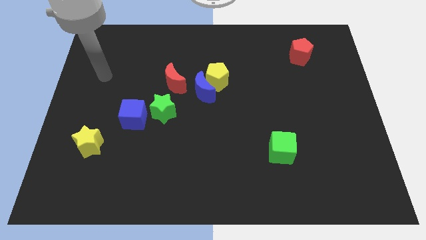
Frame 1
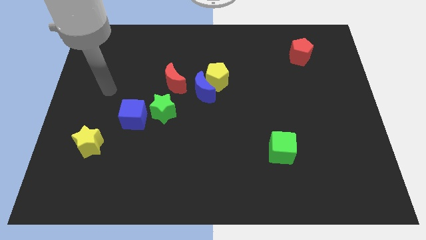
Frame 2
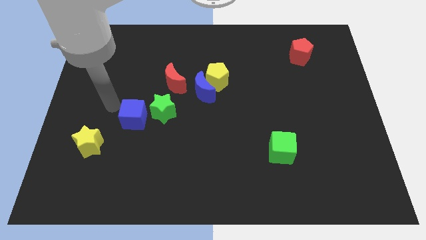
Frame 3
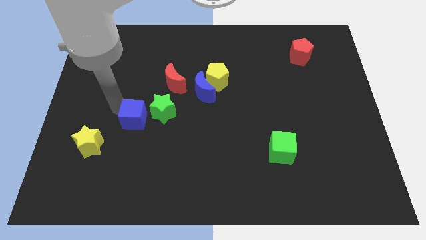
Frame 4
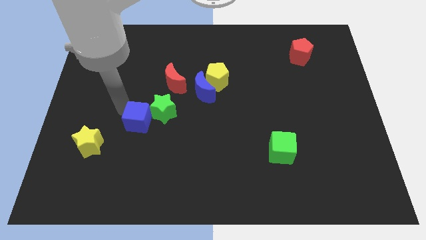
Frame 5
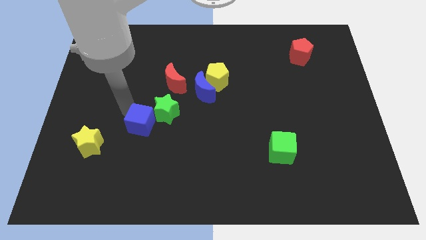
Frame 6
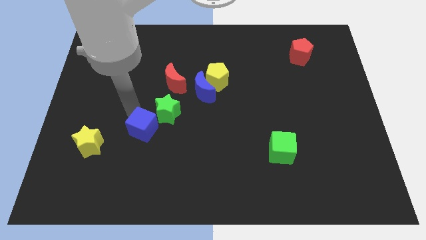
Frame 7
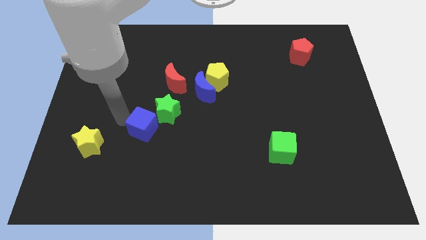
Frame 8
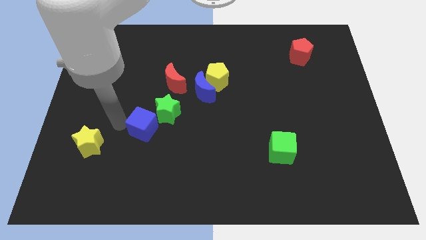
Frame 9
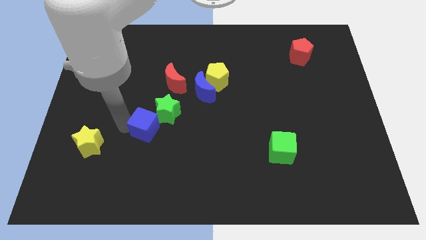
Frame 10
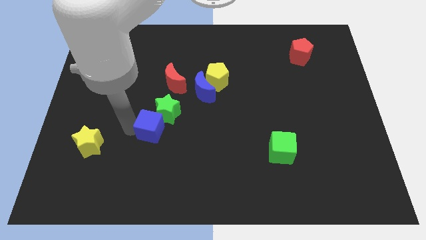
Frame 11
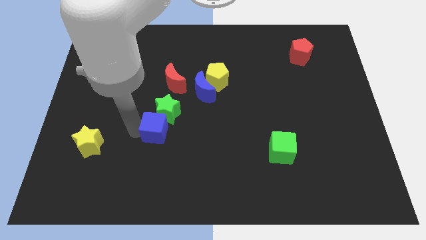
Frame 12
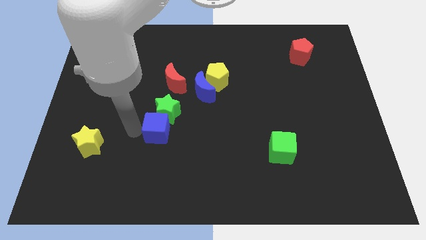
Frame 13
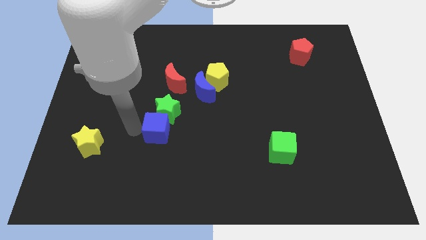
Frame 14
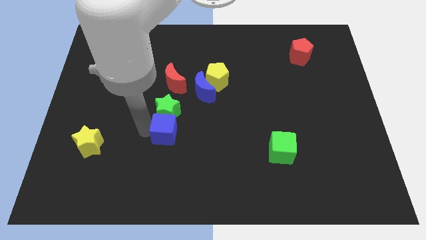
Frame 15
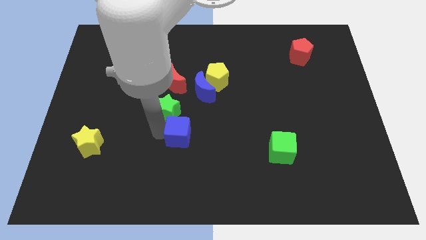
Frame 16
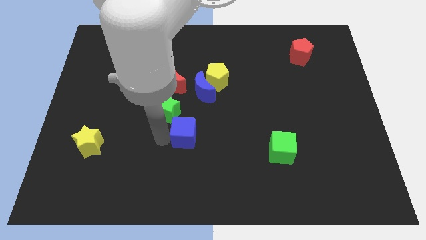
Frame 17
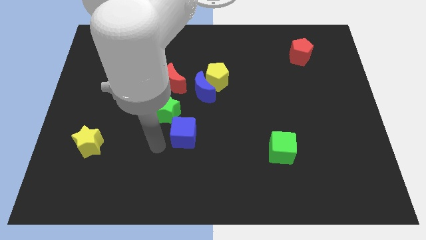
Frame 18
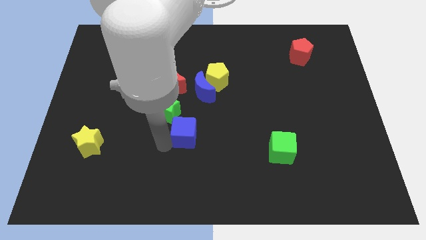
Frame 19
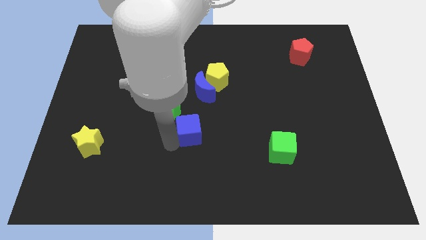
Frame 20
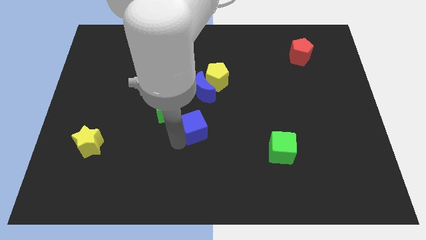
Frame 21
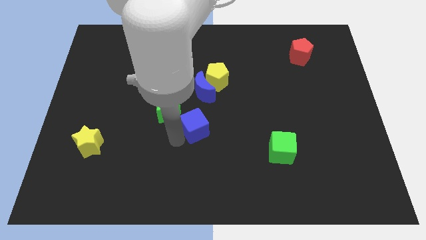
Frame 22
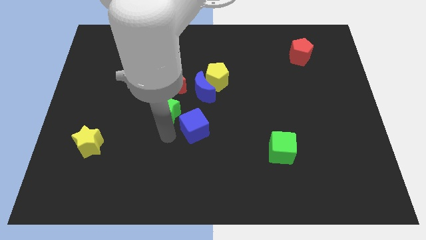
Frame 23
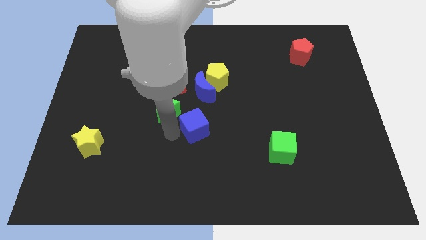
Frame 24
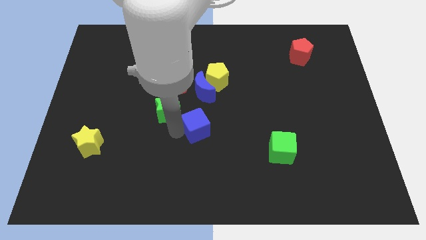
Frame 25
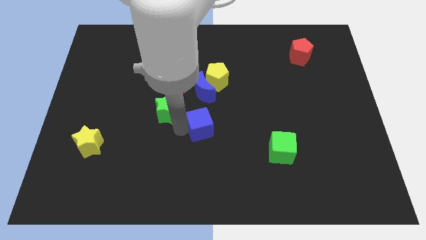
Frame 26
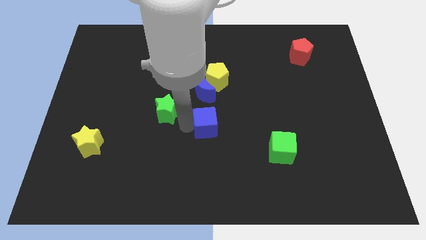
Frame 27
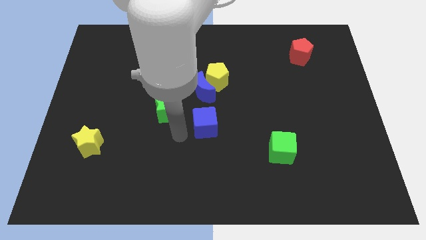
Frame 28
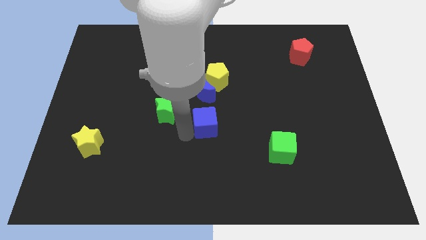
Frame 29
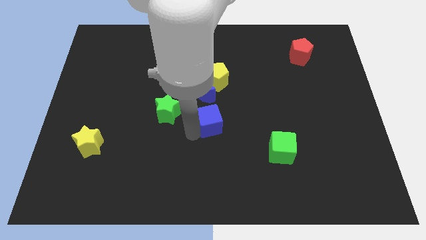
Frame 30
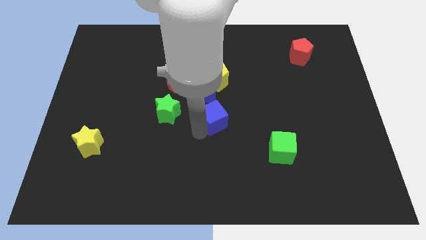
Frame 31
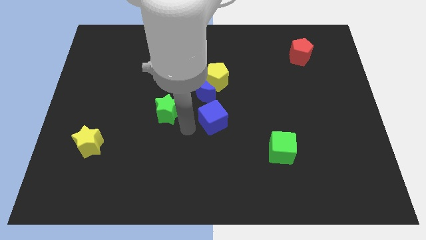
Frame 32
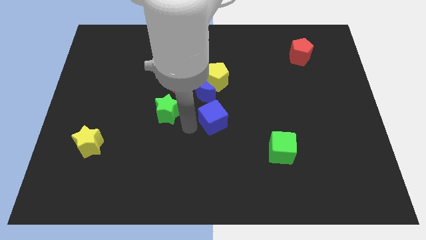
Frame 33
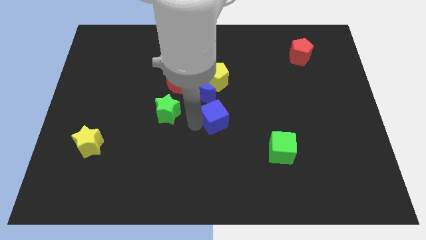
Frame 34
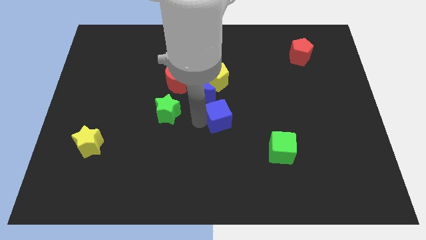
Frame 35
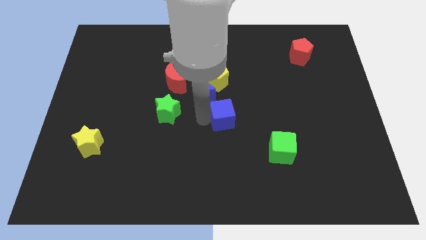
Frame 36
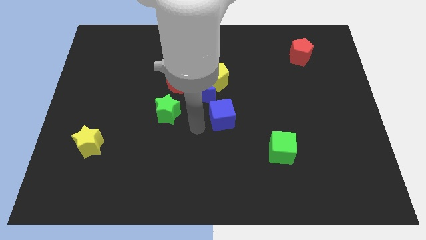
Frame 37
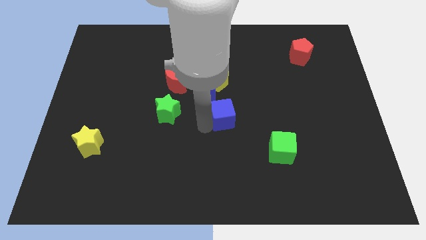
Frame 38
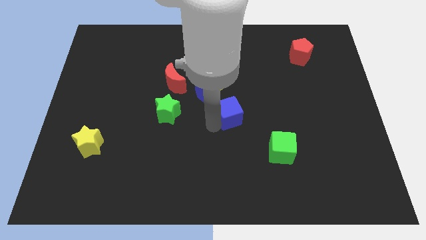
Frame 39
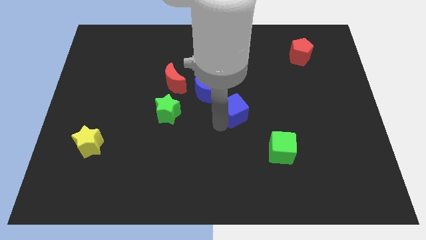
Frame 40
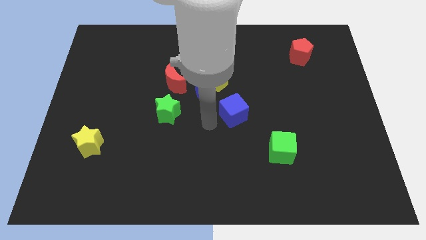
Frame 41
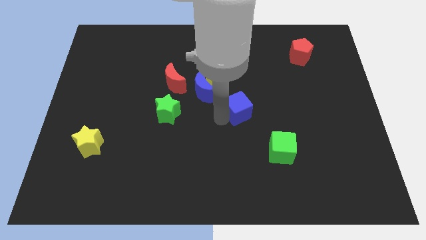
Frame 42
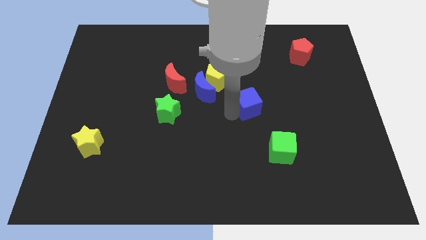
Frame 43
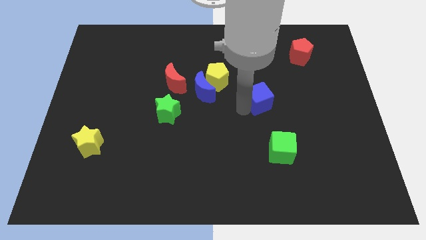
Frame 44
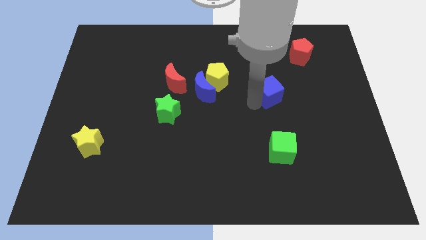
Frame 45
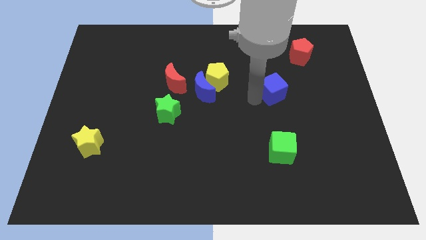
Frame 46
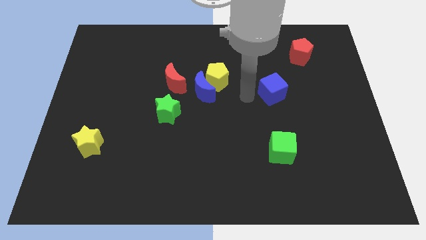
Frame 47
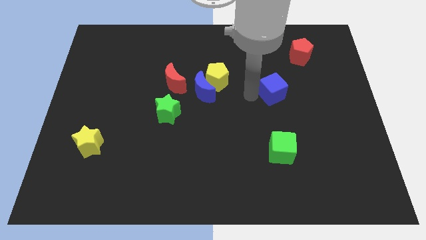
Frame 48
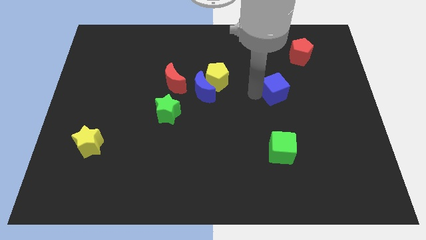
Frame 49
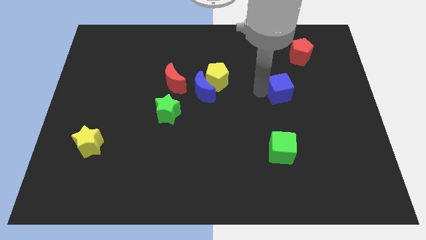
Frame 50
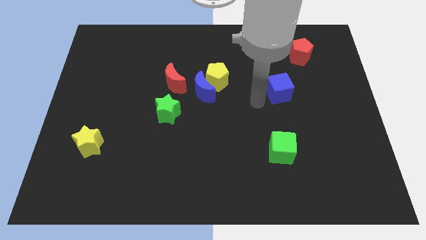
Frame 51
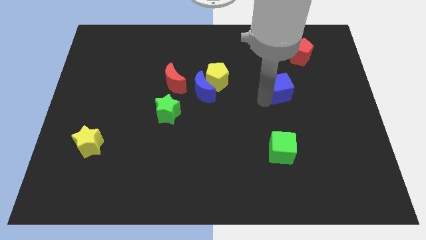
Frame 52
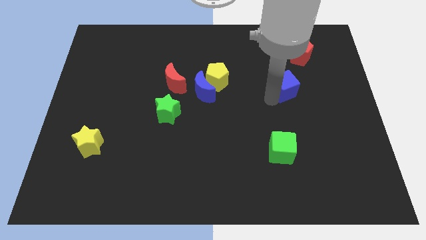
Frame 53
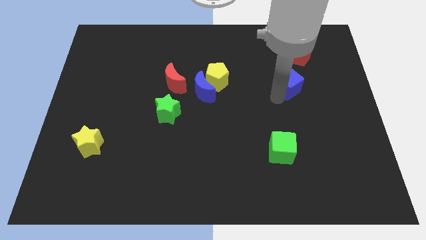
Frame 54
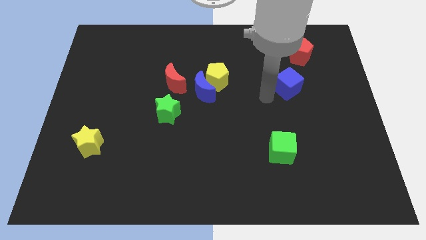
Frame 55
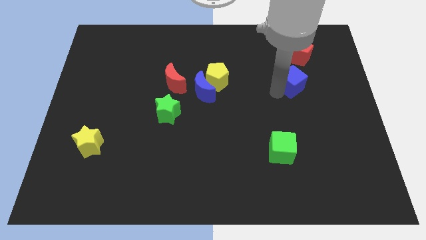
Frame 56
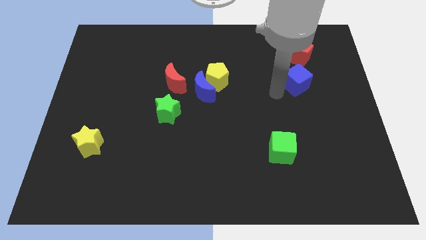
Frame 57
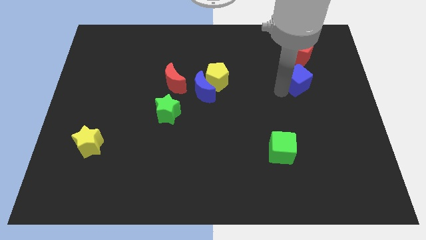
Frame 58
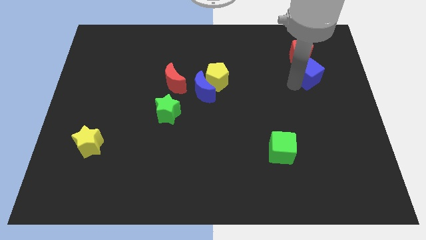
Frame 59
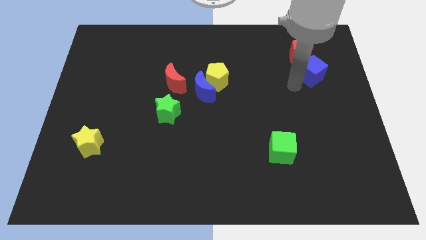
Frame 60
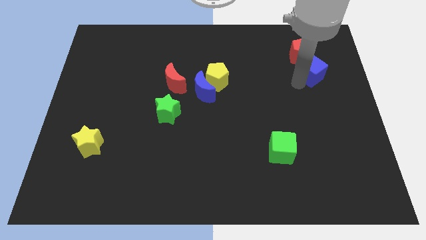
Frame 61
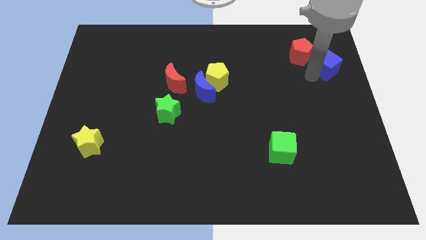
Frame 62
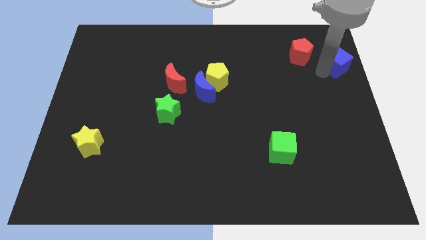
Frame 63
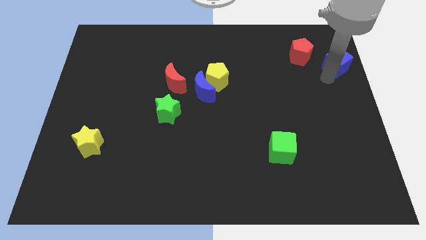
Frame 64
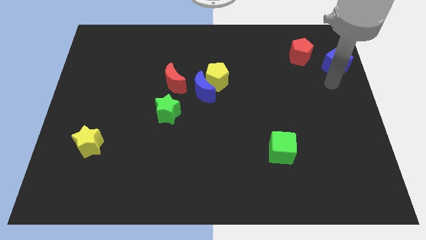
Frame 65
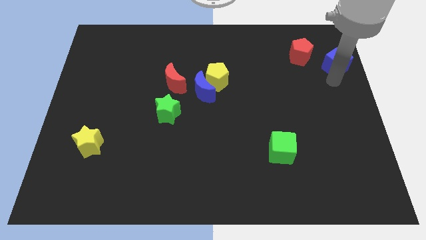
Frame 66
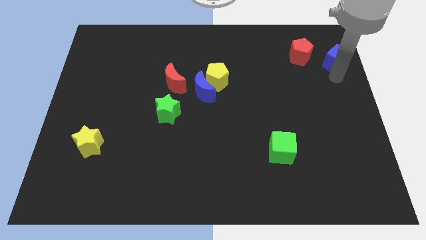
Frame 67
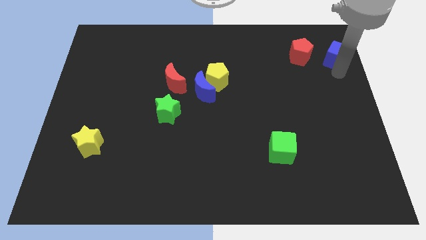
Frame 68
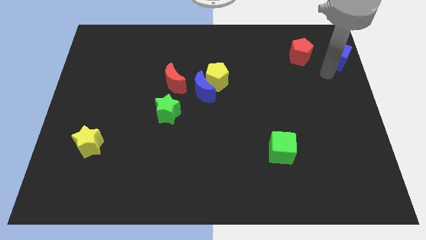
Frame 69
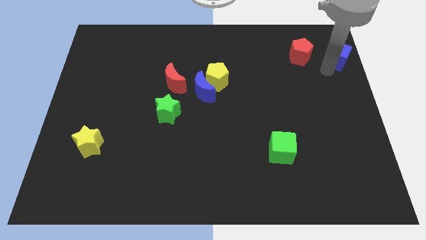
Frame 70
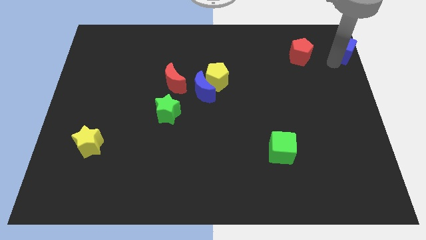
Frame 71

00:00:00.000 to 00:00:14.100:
move the blue cube to the top right
